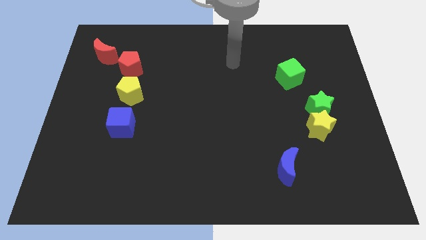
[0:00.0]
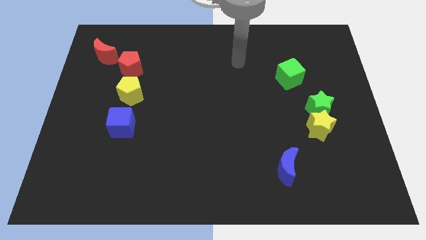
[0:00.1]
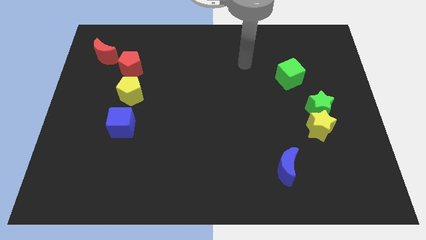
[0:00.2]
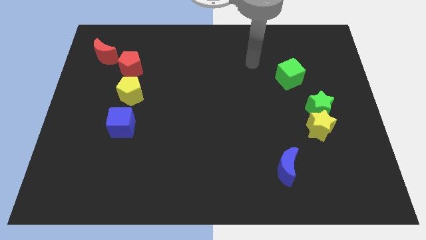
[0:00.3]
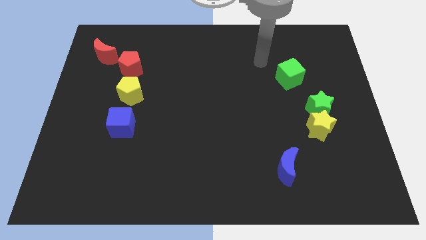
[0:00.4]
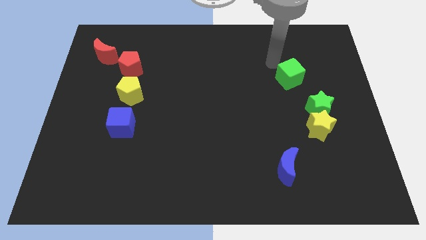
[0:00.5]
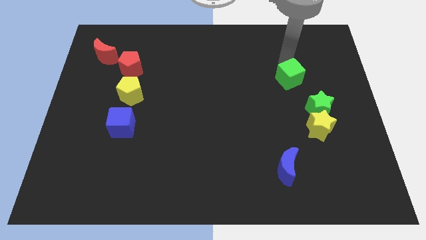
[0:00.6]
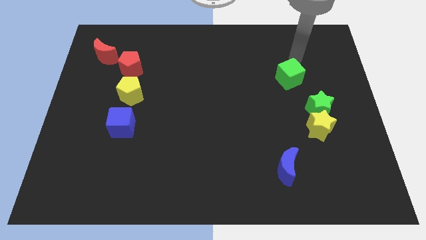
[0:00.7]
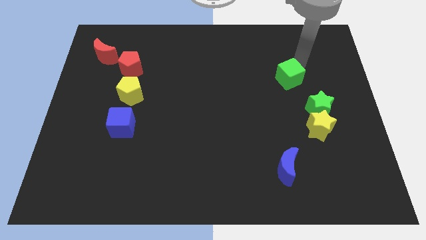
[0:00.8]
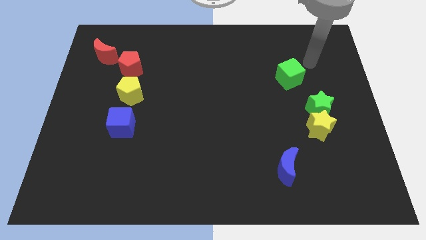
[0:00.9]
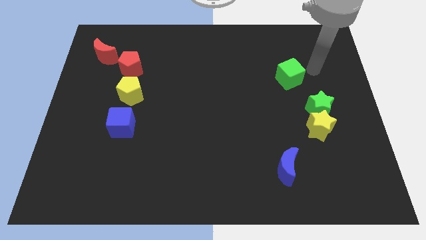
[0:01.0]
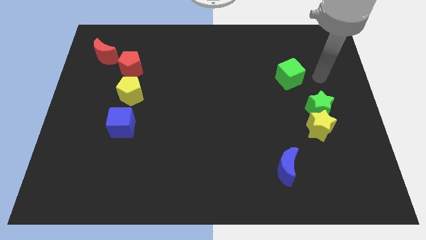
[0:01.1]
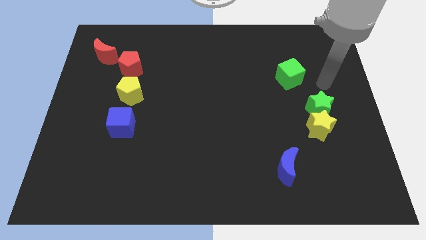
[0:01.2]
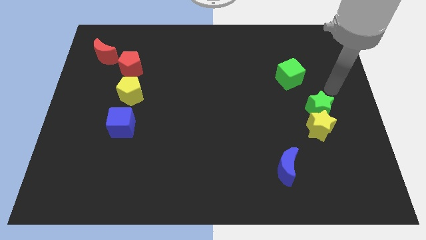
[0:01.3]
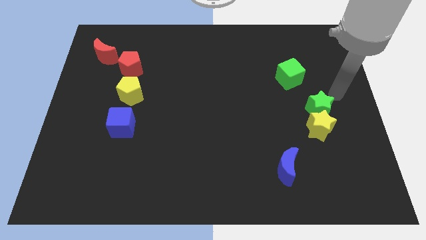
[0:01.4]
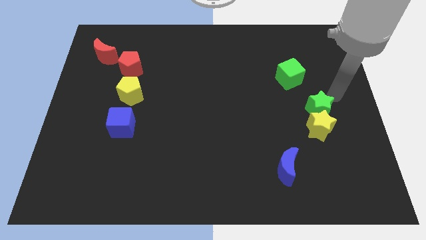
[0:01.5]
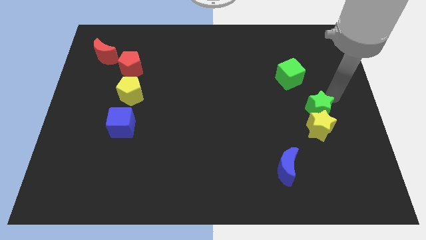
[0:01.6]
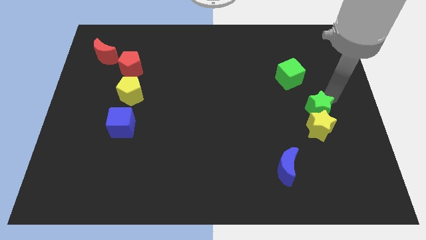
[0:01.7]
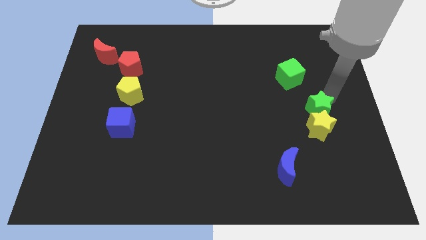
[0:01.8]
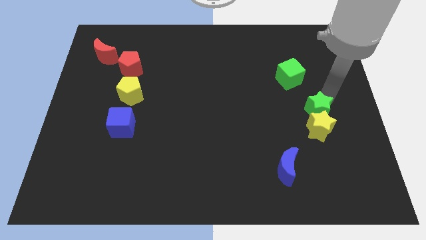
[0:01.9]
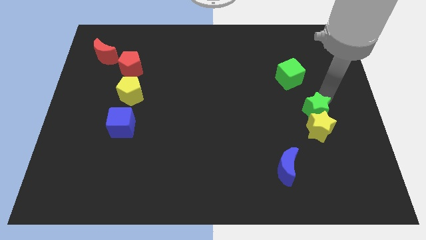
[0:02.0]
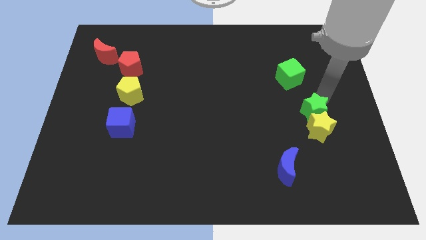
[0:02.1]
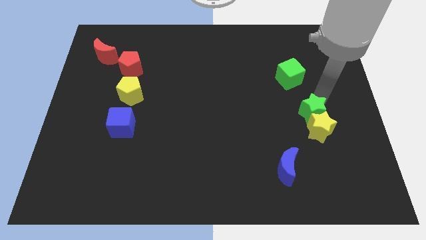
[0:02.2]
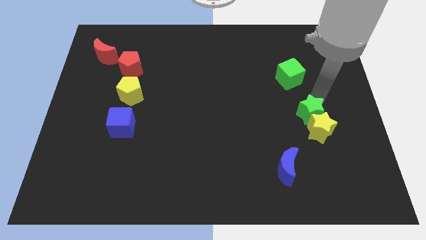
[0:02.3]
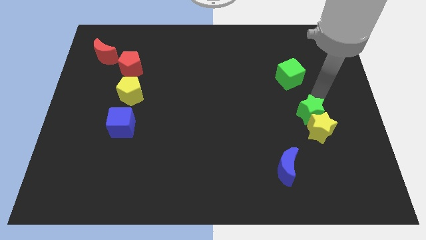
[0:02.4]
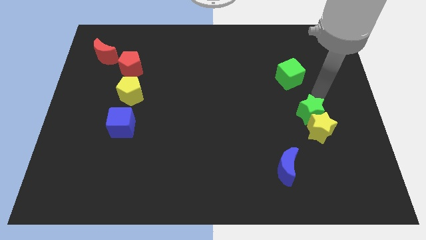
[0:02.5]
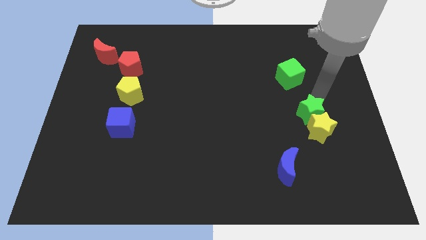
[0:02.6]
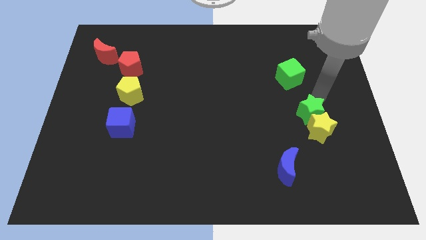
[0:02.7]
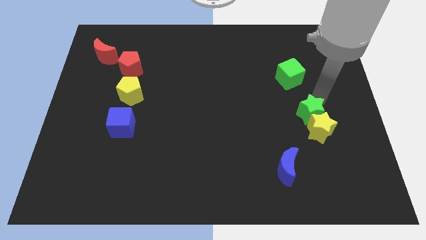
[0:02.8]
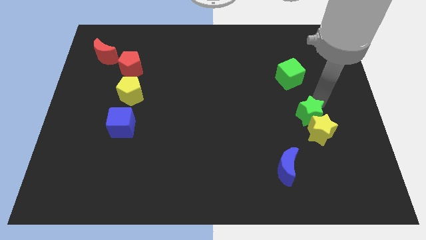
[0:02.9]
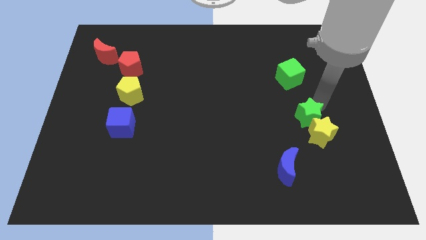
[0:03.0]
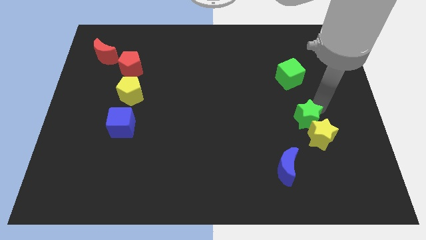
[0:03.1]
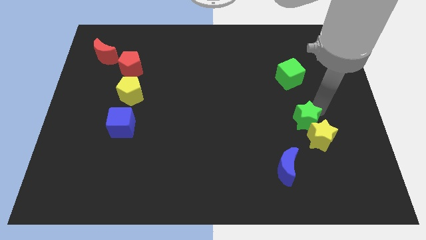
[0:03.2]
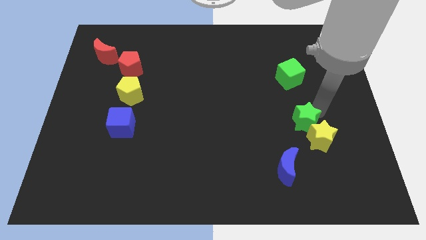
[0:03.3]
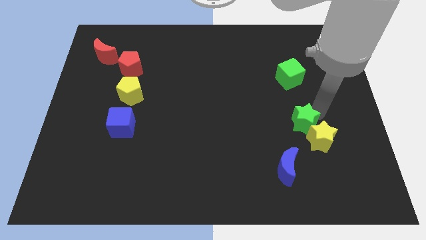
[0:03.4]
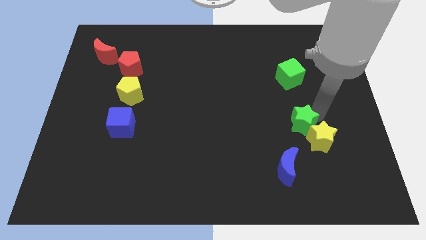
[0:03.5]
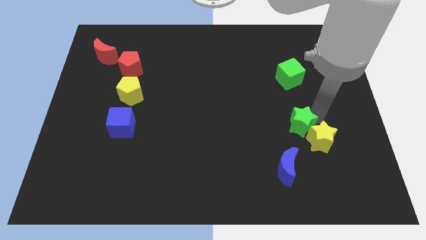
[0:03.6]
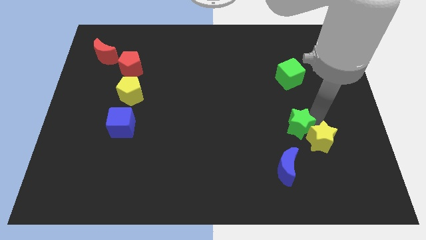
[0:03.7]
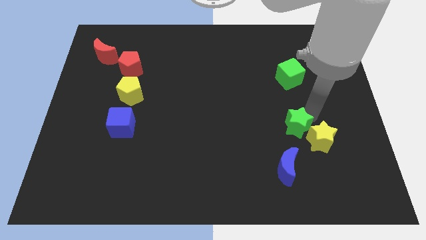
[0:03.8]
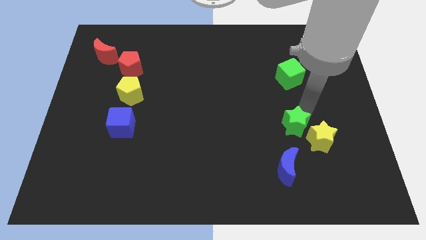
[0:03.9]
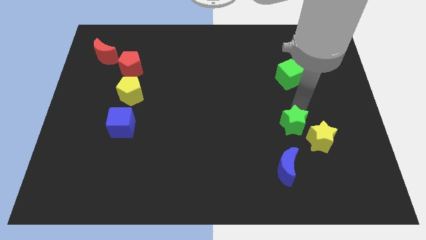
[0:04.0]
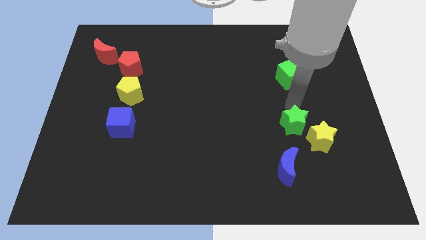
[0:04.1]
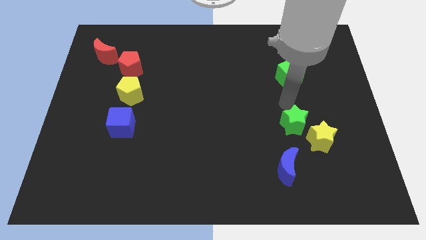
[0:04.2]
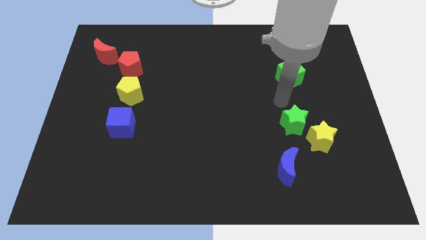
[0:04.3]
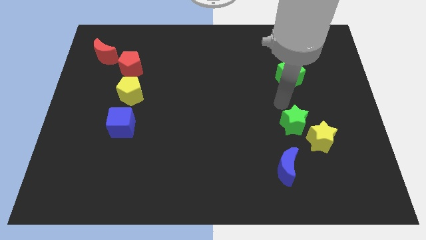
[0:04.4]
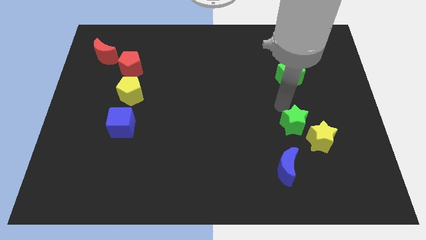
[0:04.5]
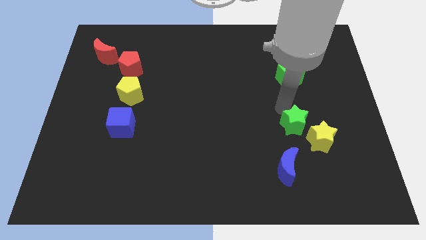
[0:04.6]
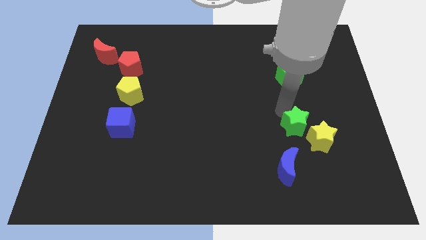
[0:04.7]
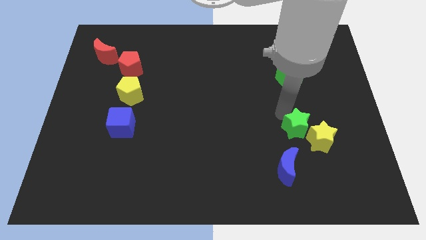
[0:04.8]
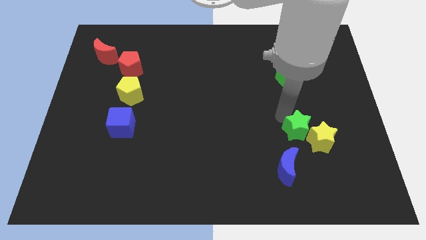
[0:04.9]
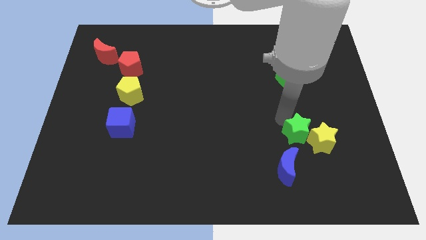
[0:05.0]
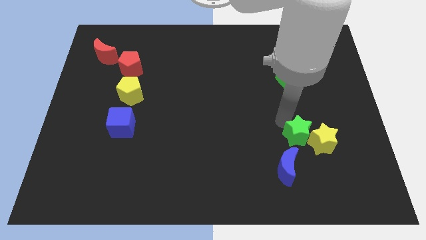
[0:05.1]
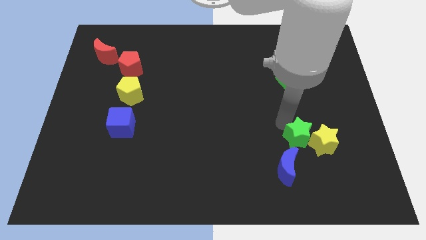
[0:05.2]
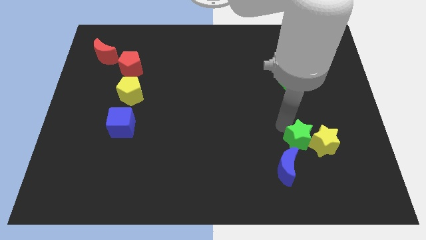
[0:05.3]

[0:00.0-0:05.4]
move the green star a bit down

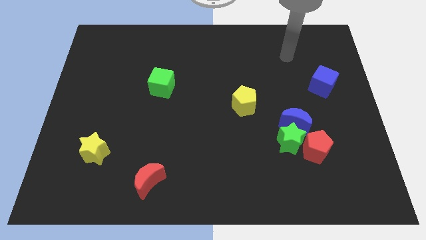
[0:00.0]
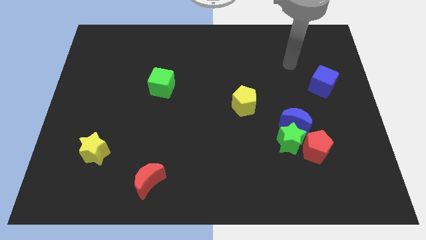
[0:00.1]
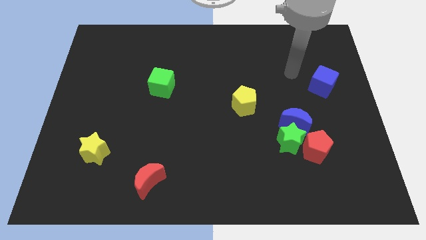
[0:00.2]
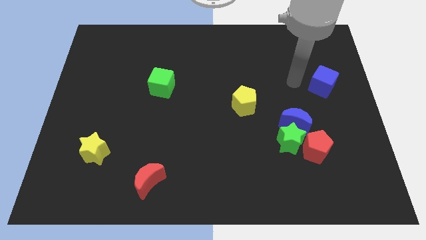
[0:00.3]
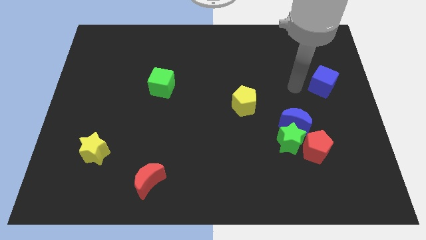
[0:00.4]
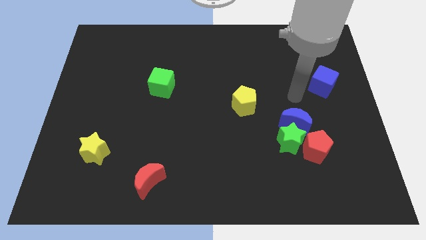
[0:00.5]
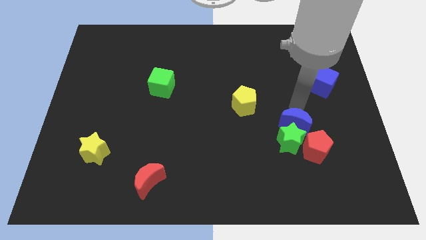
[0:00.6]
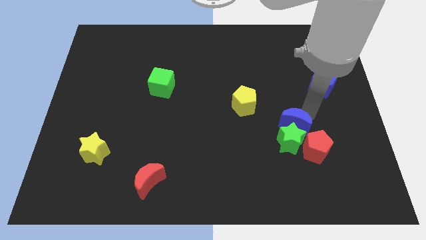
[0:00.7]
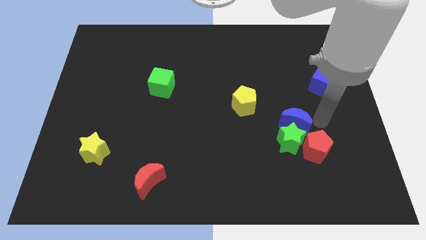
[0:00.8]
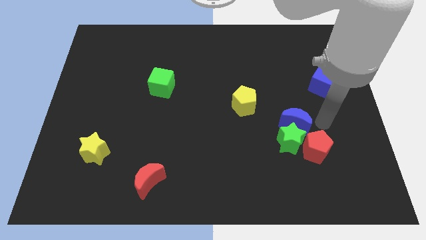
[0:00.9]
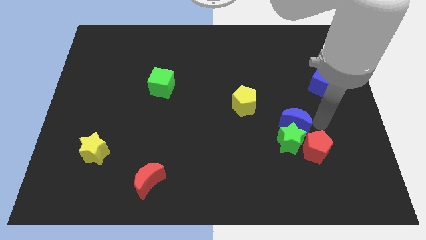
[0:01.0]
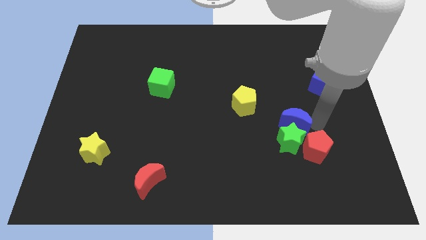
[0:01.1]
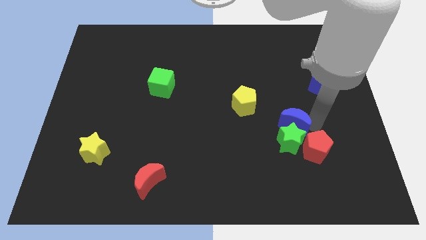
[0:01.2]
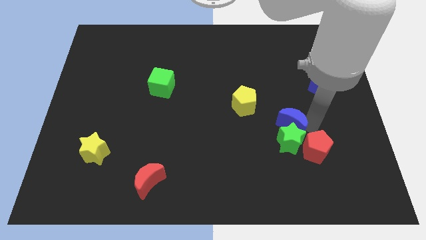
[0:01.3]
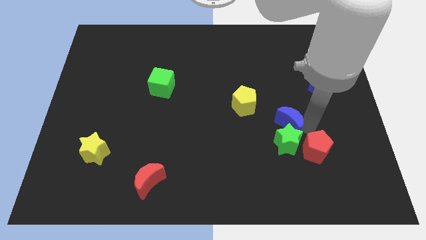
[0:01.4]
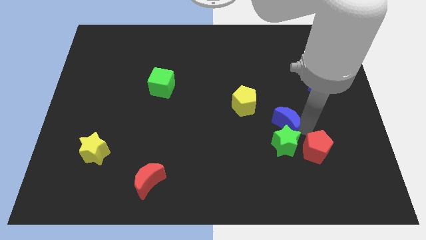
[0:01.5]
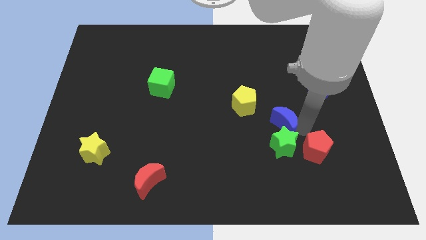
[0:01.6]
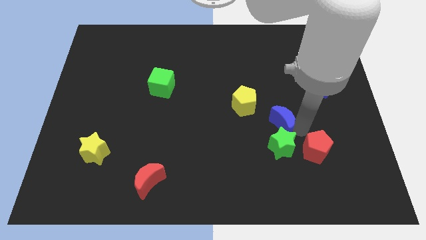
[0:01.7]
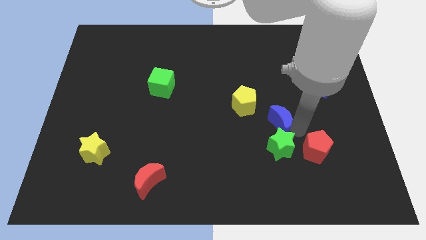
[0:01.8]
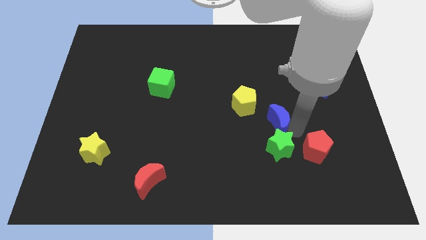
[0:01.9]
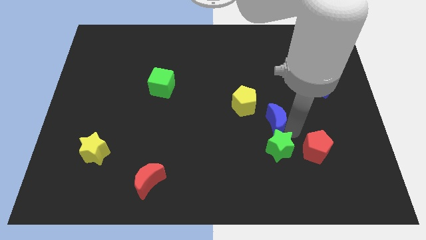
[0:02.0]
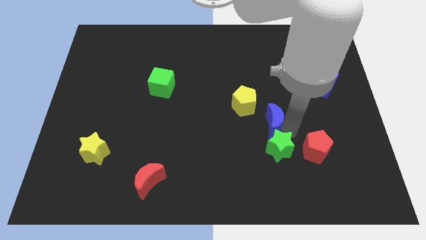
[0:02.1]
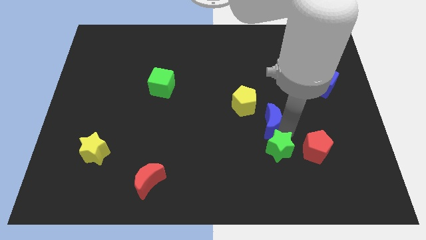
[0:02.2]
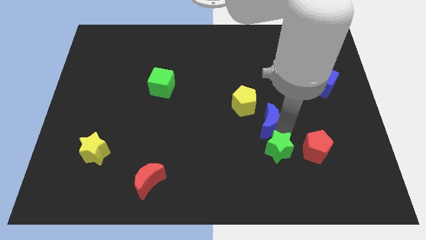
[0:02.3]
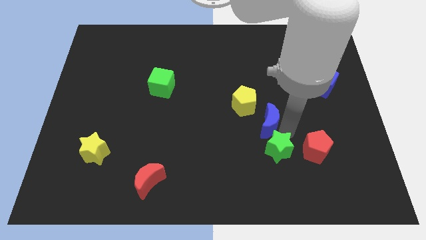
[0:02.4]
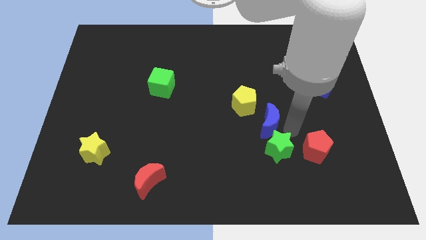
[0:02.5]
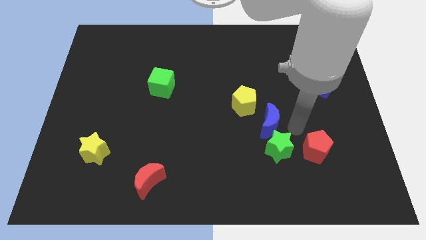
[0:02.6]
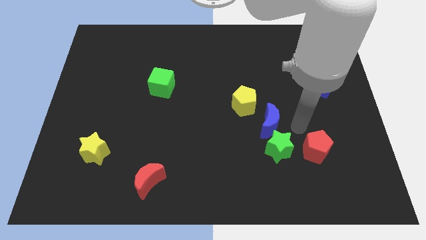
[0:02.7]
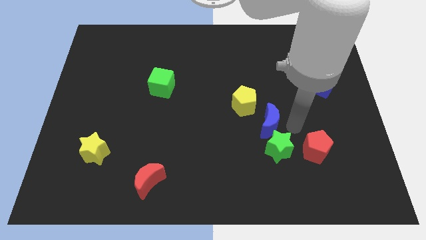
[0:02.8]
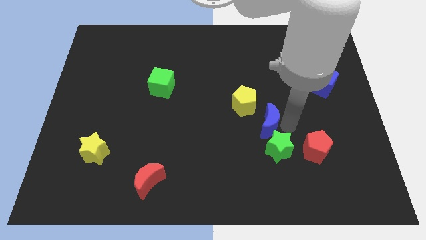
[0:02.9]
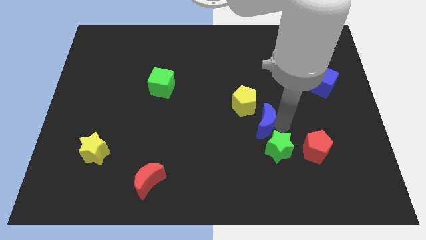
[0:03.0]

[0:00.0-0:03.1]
slightly move the blue moon left
